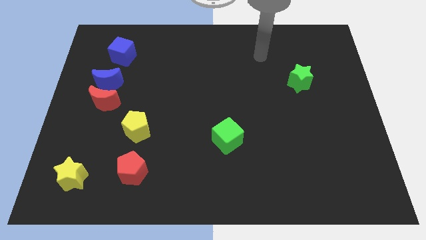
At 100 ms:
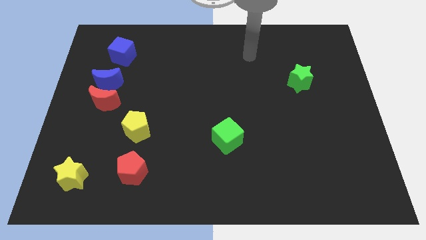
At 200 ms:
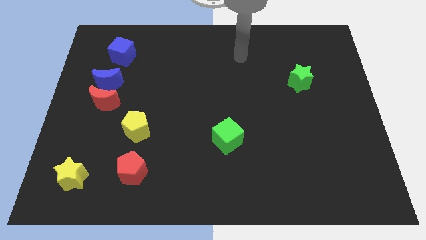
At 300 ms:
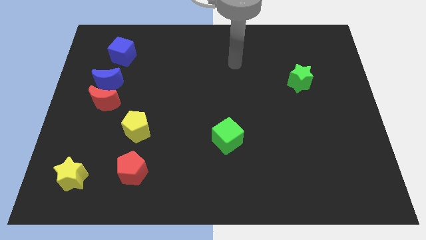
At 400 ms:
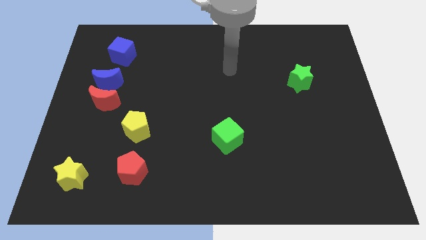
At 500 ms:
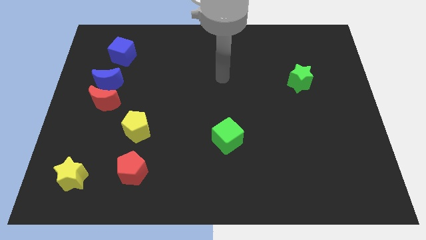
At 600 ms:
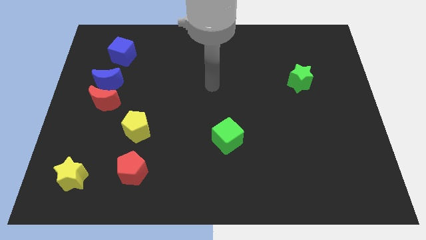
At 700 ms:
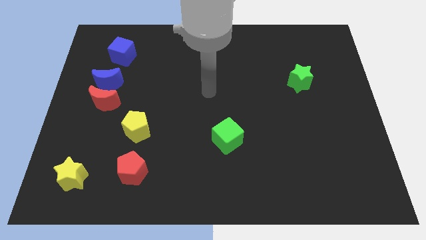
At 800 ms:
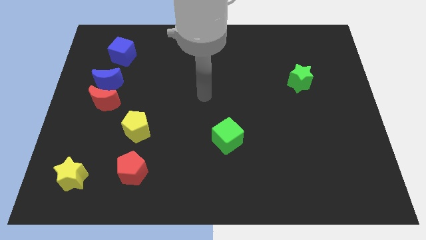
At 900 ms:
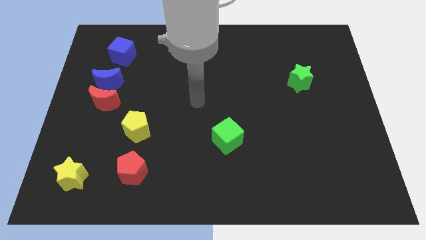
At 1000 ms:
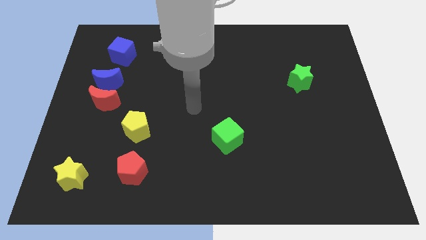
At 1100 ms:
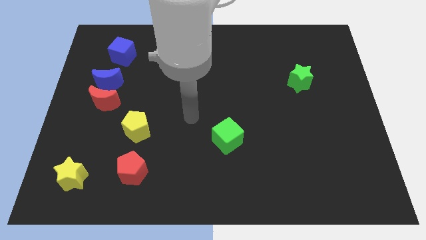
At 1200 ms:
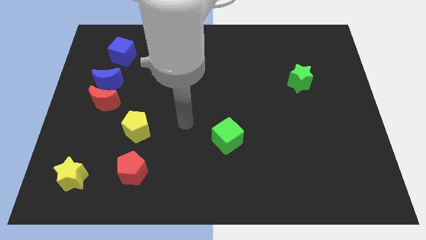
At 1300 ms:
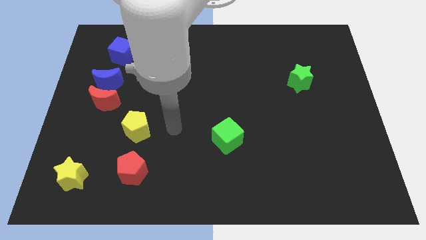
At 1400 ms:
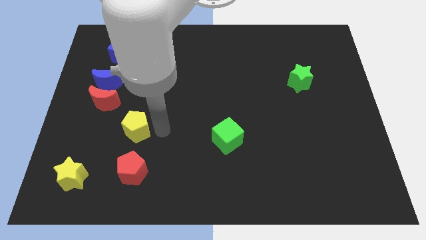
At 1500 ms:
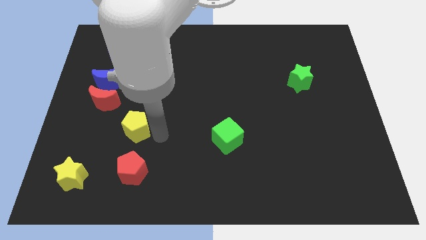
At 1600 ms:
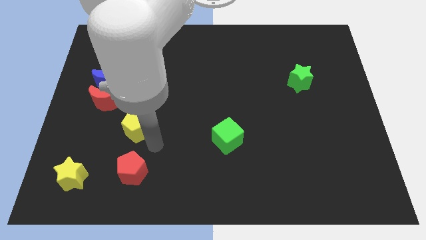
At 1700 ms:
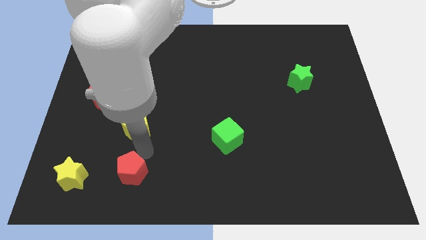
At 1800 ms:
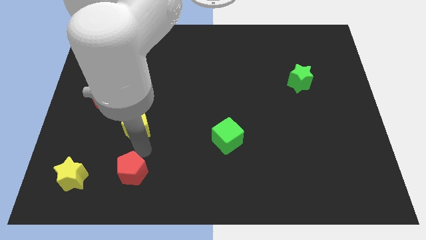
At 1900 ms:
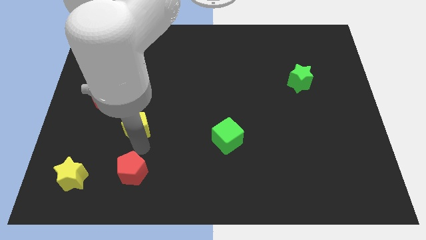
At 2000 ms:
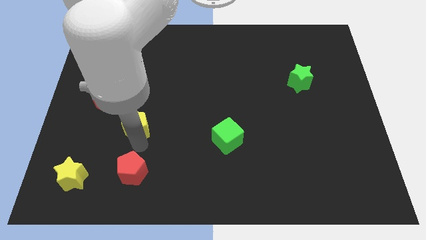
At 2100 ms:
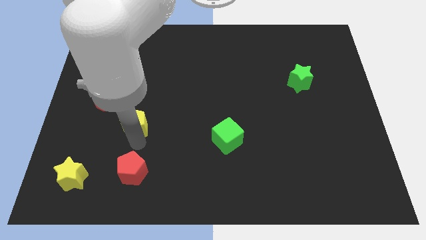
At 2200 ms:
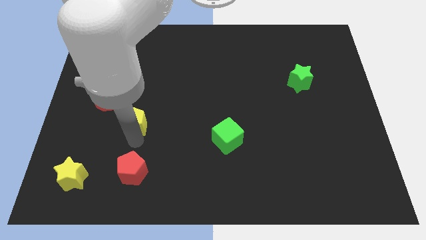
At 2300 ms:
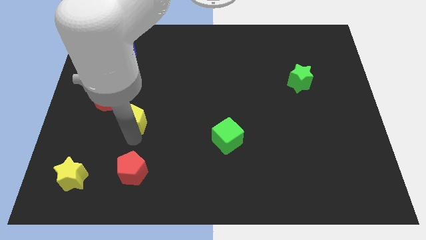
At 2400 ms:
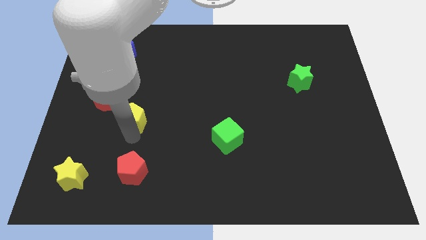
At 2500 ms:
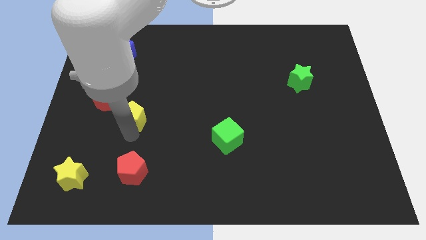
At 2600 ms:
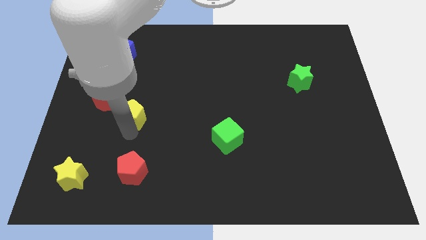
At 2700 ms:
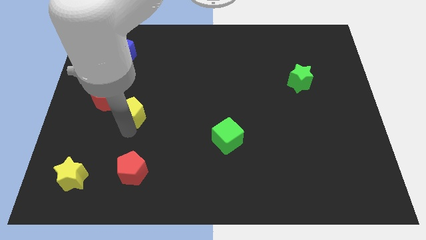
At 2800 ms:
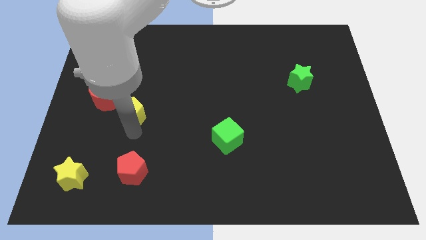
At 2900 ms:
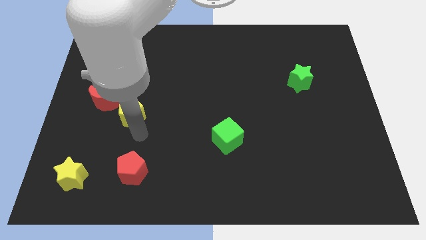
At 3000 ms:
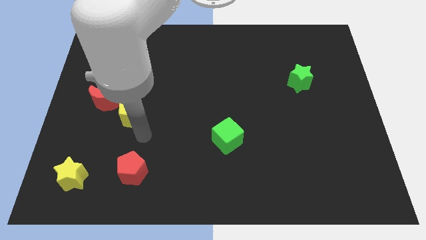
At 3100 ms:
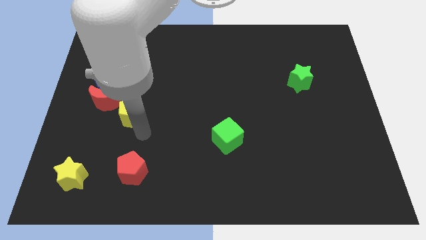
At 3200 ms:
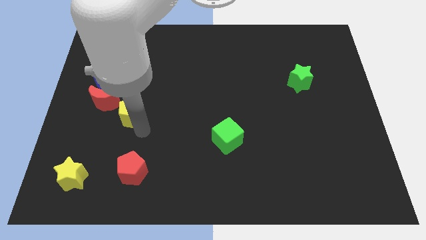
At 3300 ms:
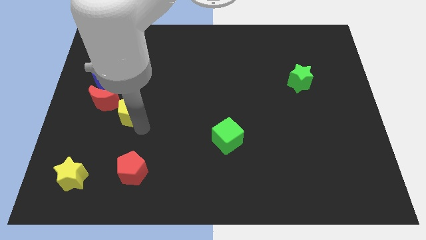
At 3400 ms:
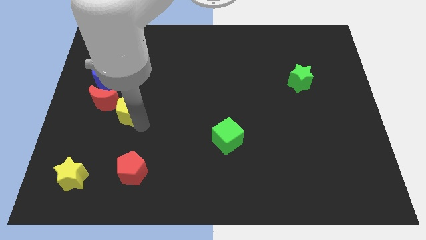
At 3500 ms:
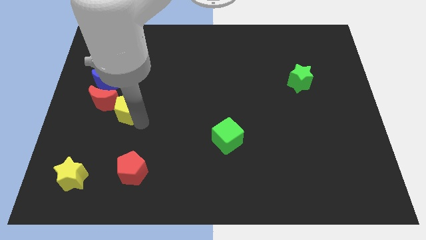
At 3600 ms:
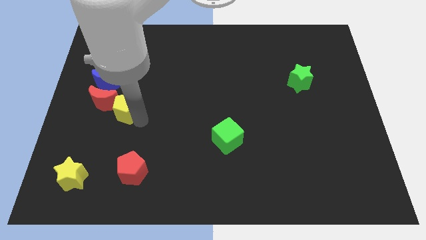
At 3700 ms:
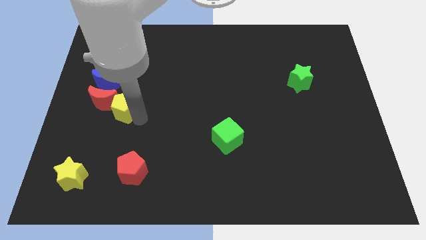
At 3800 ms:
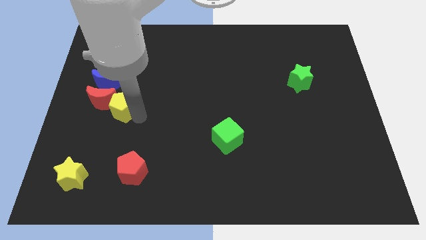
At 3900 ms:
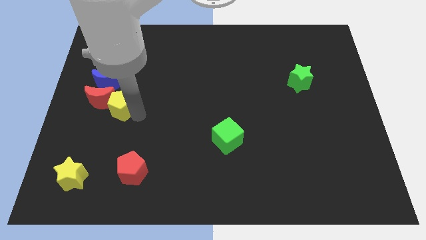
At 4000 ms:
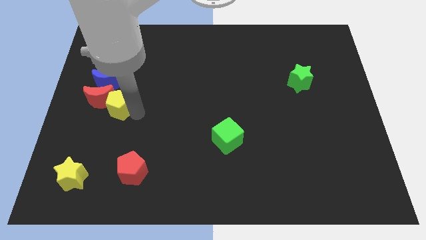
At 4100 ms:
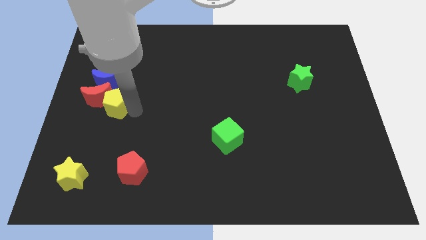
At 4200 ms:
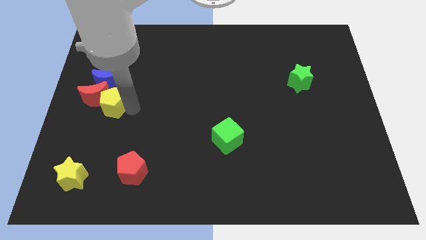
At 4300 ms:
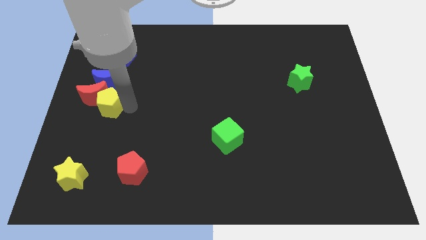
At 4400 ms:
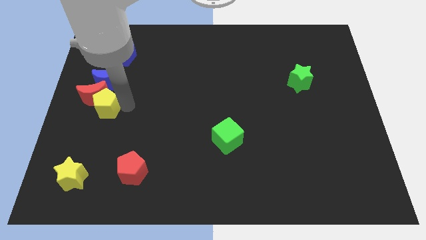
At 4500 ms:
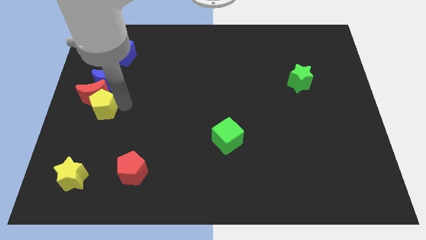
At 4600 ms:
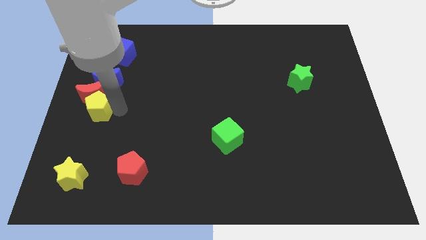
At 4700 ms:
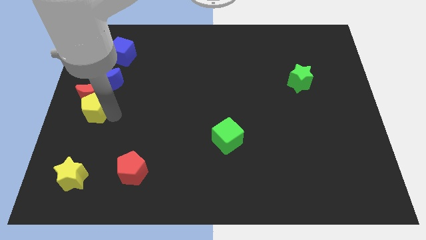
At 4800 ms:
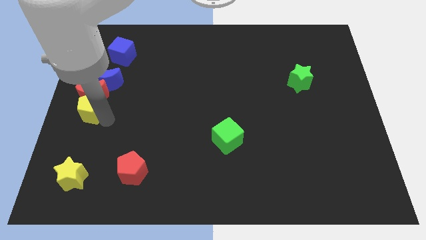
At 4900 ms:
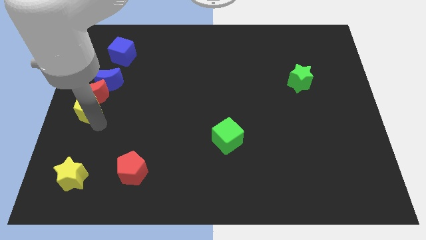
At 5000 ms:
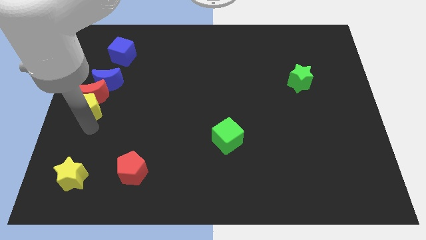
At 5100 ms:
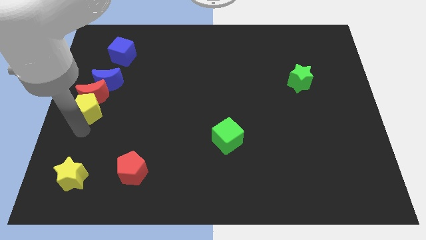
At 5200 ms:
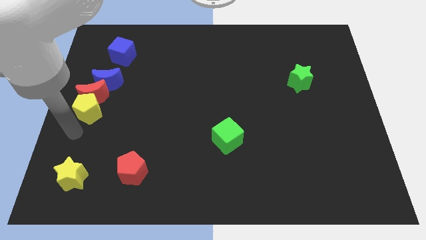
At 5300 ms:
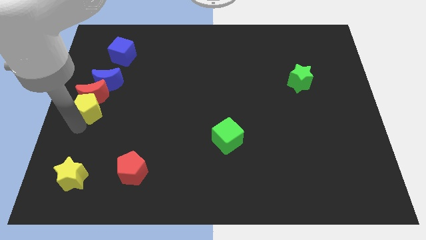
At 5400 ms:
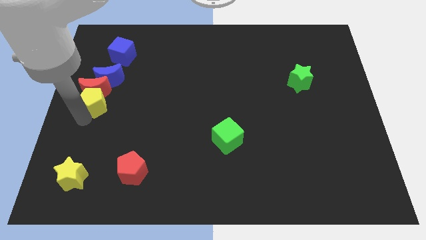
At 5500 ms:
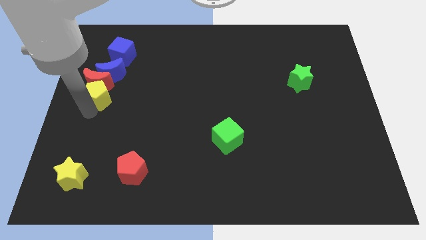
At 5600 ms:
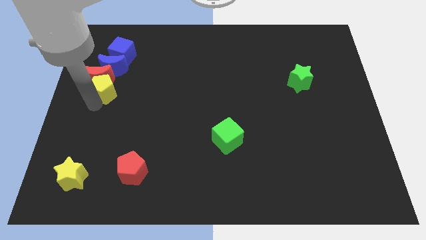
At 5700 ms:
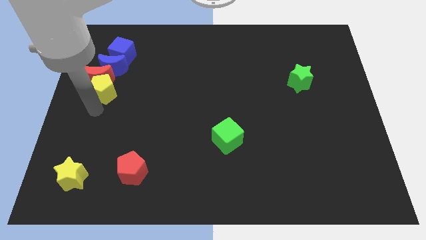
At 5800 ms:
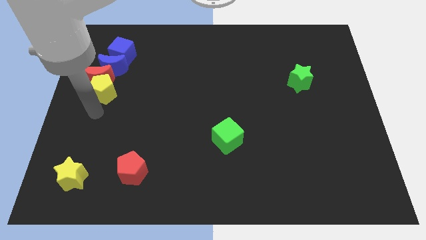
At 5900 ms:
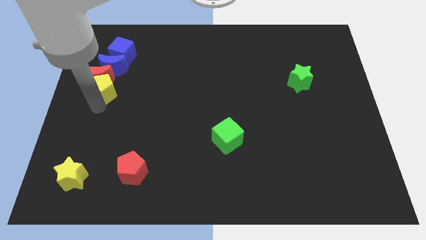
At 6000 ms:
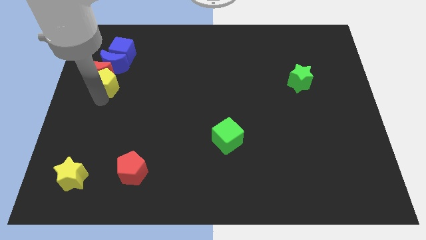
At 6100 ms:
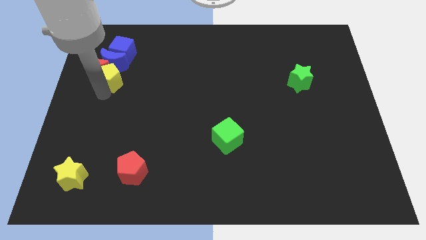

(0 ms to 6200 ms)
slide the yellow pentagon to the blue moon

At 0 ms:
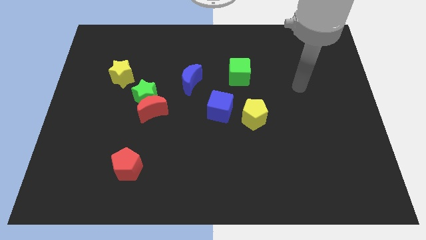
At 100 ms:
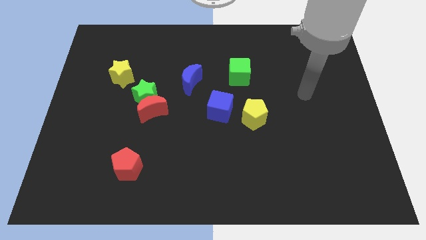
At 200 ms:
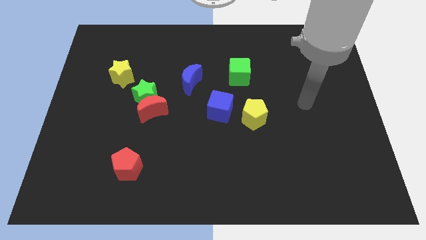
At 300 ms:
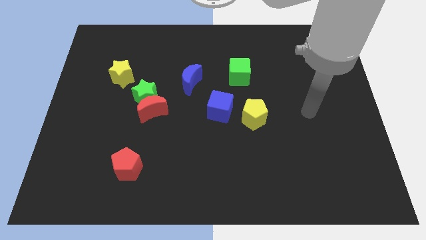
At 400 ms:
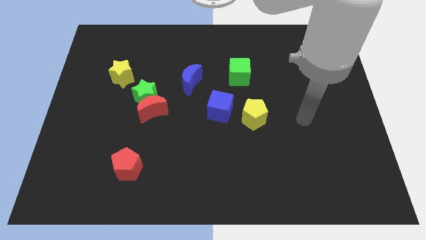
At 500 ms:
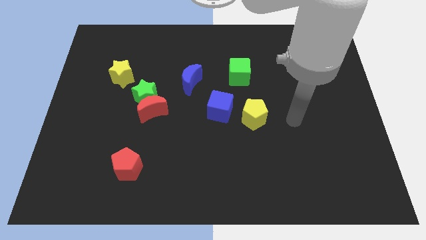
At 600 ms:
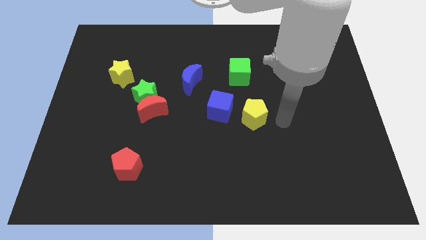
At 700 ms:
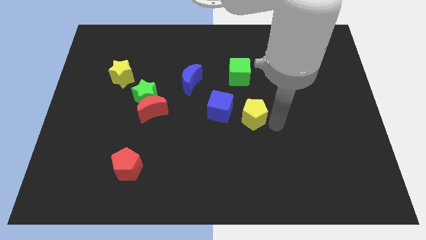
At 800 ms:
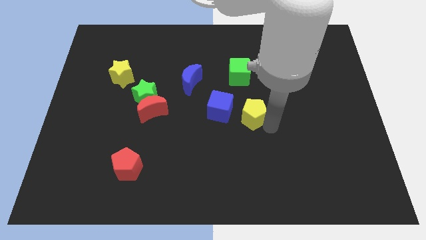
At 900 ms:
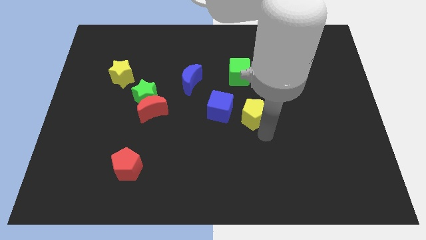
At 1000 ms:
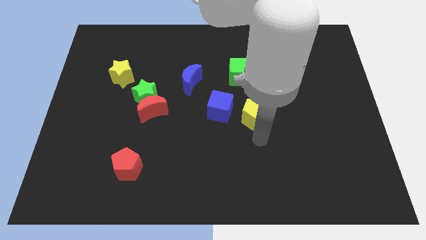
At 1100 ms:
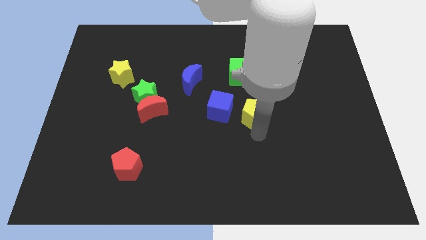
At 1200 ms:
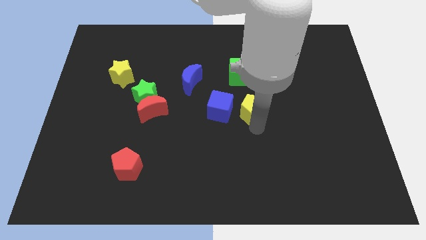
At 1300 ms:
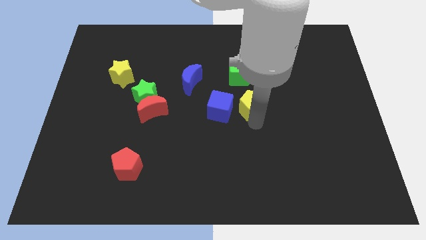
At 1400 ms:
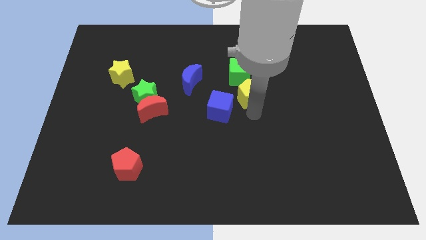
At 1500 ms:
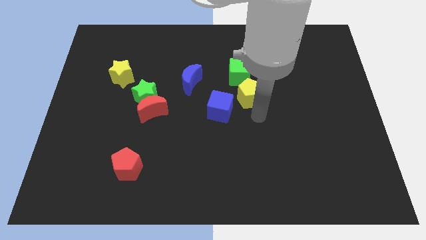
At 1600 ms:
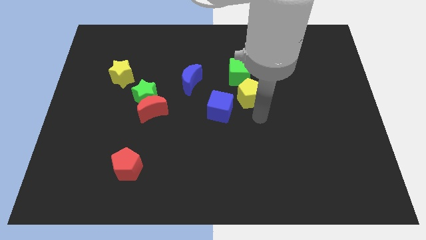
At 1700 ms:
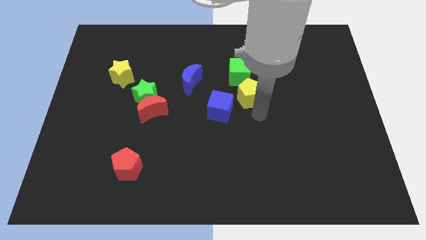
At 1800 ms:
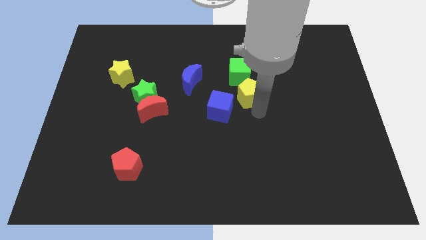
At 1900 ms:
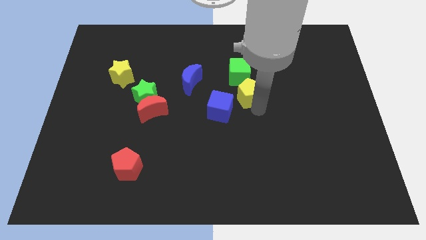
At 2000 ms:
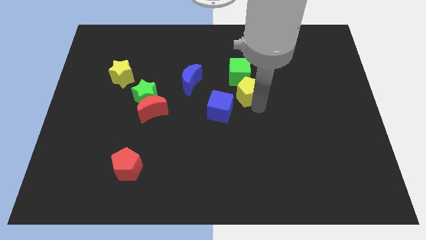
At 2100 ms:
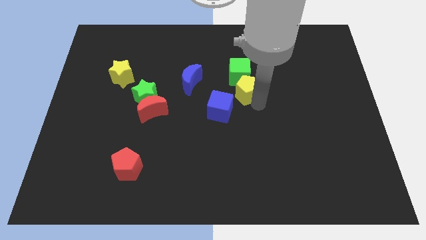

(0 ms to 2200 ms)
slide the yellow pentagon towards the green cube
